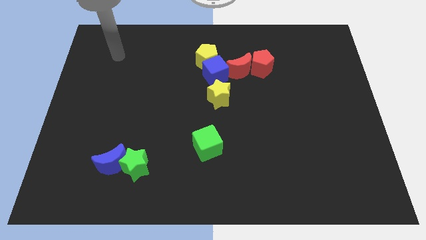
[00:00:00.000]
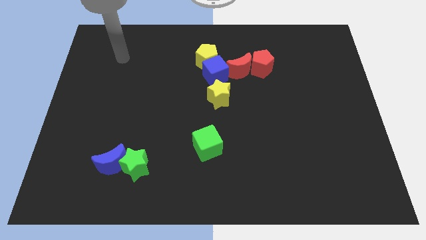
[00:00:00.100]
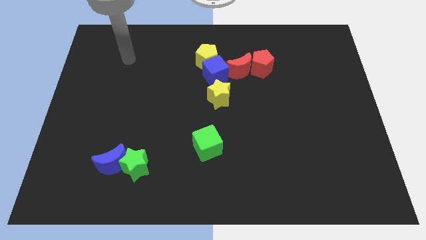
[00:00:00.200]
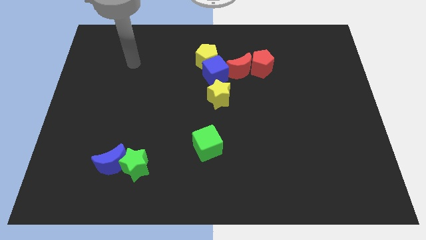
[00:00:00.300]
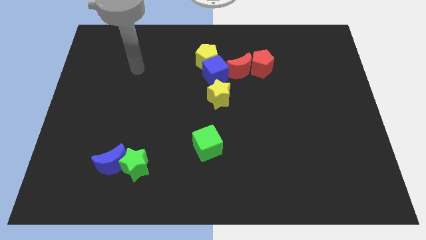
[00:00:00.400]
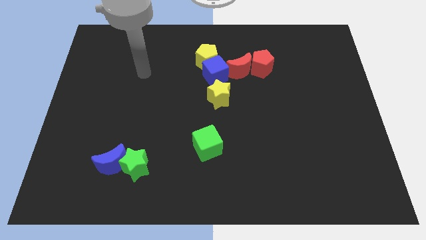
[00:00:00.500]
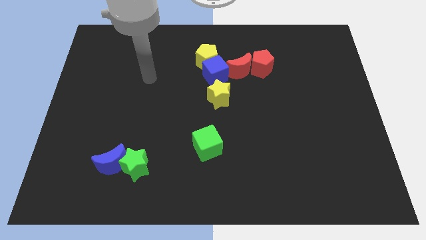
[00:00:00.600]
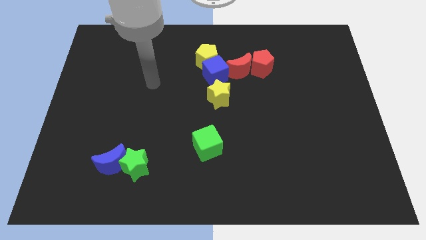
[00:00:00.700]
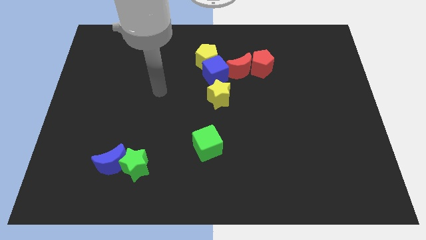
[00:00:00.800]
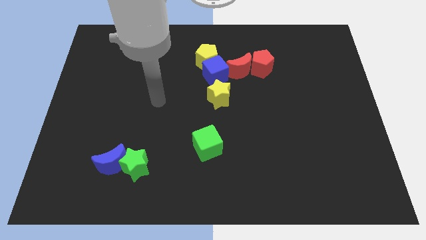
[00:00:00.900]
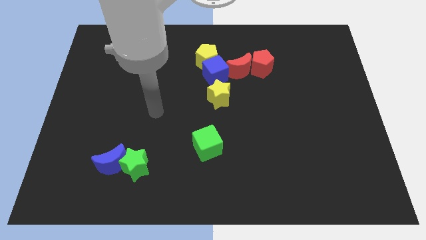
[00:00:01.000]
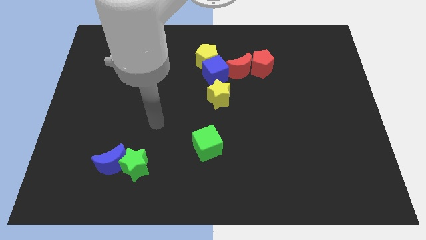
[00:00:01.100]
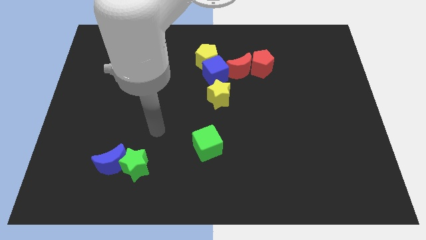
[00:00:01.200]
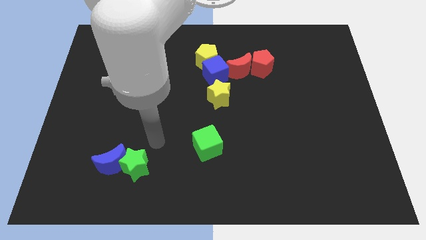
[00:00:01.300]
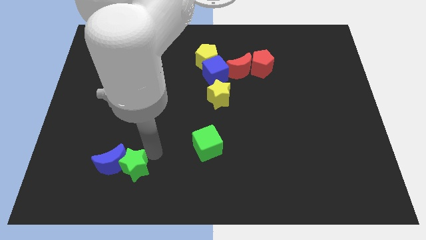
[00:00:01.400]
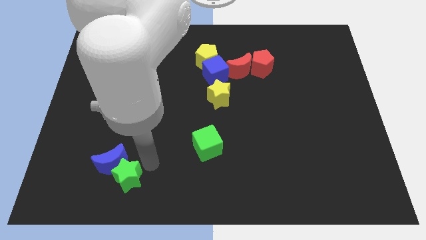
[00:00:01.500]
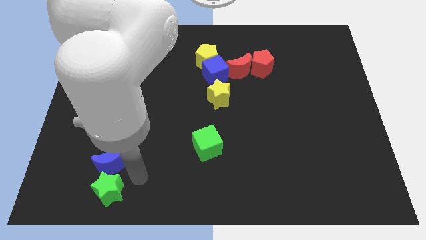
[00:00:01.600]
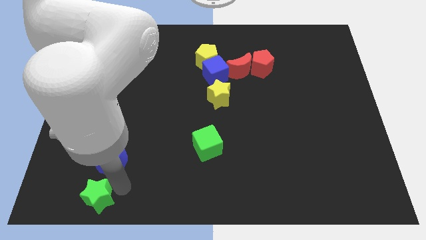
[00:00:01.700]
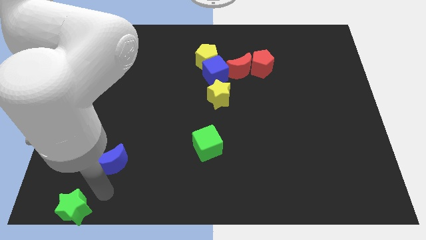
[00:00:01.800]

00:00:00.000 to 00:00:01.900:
separate the blue moon from the green star

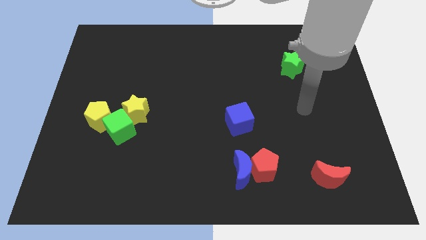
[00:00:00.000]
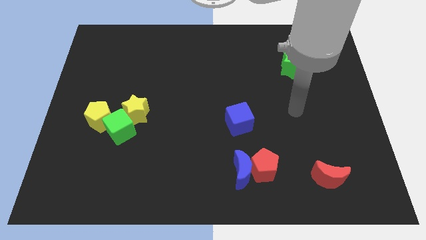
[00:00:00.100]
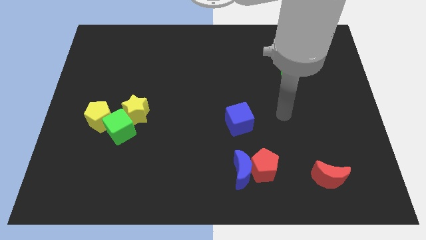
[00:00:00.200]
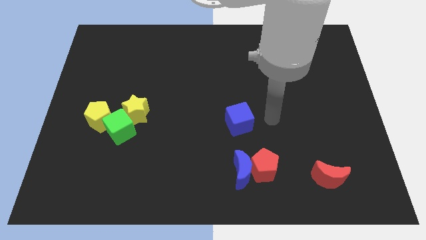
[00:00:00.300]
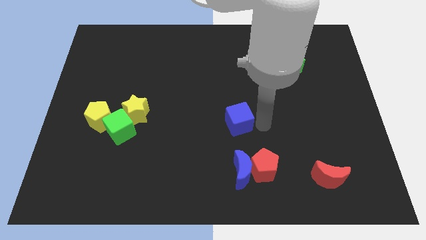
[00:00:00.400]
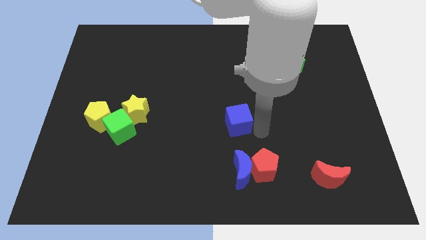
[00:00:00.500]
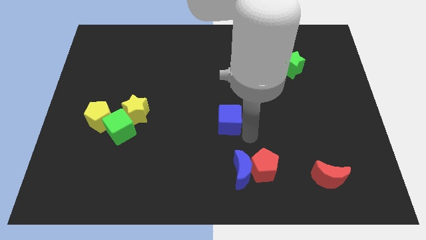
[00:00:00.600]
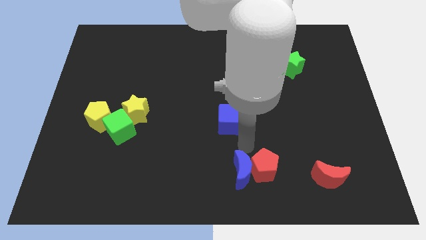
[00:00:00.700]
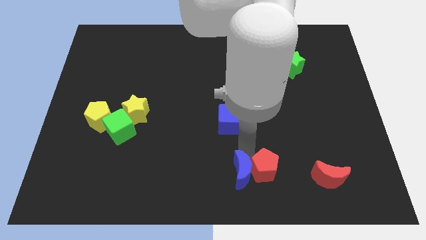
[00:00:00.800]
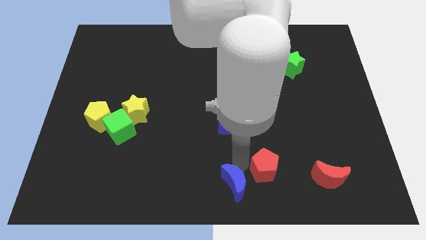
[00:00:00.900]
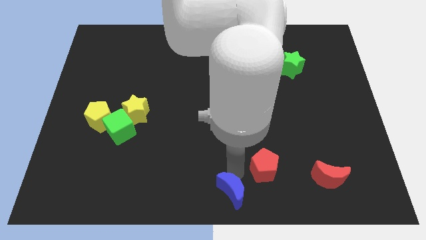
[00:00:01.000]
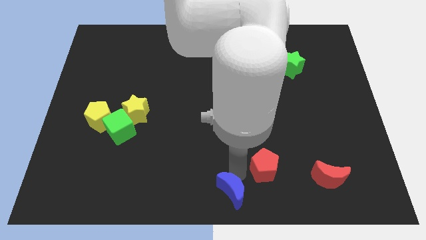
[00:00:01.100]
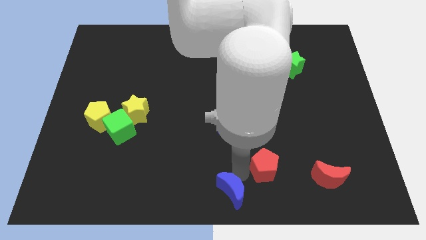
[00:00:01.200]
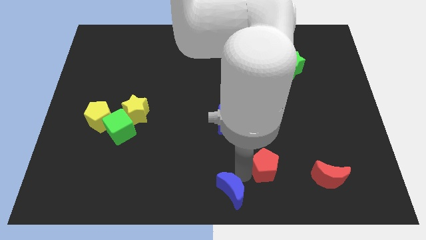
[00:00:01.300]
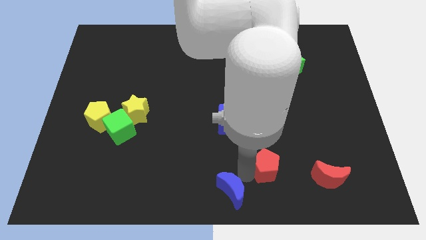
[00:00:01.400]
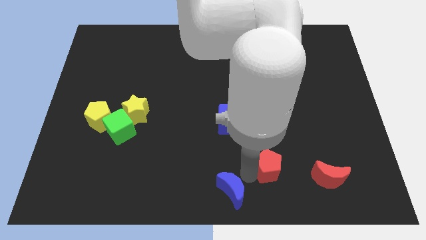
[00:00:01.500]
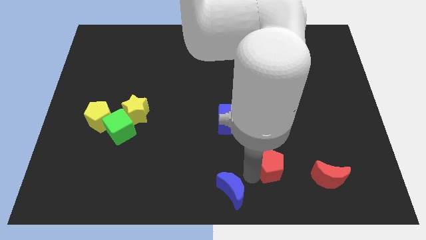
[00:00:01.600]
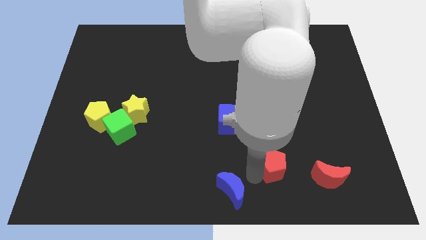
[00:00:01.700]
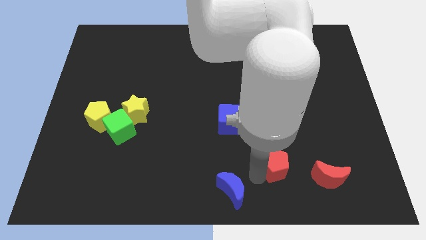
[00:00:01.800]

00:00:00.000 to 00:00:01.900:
move the red pentagon away from the blue moon

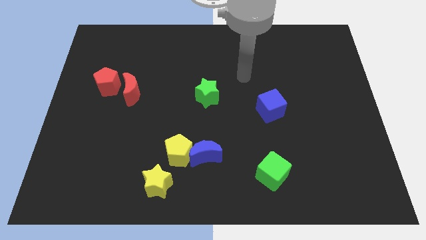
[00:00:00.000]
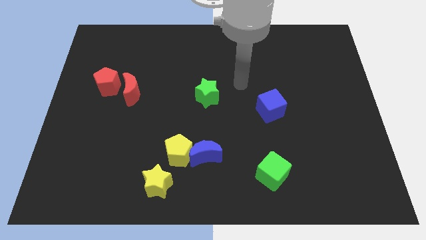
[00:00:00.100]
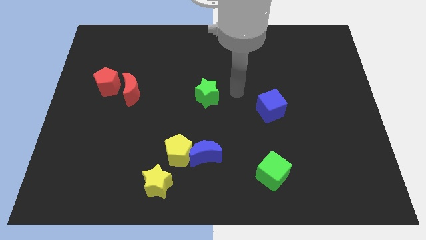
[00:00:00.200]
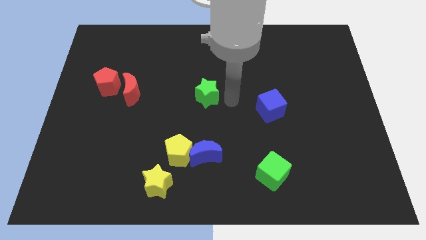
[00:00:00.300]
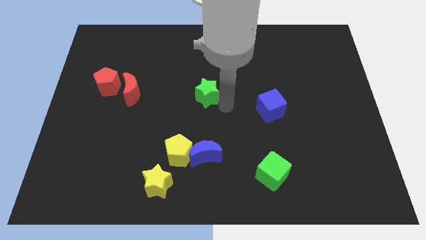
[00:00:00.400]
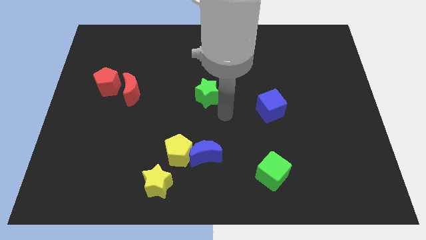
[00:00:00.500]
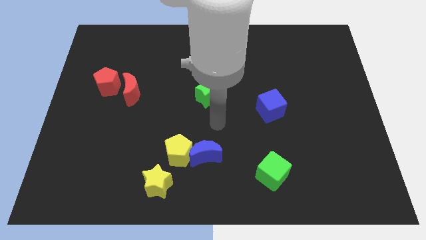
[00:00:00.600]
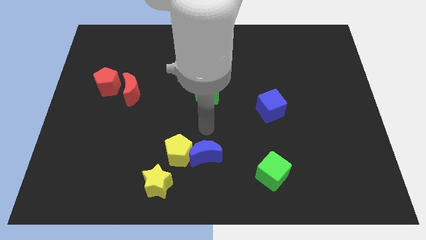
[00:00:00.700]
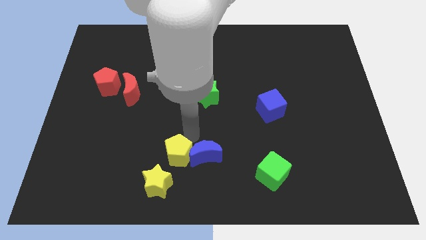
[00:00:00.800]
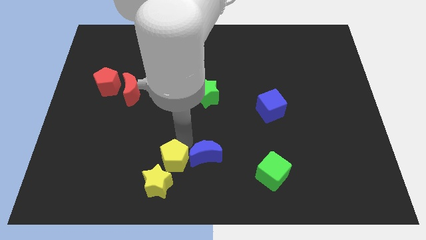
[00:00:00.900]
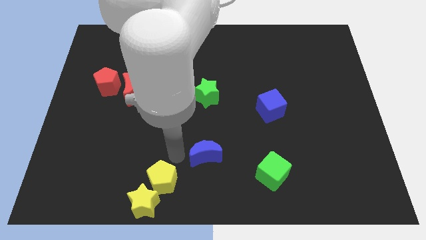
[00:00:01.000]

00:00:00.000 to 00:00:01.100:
pull the blue moon apart from the yellow pentagon

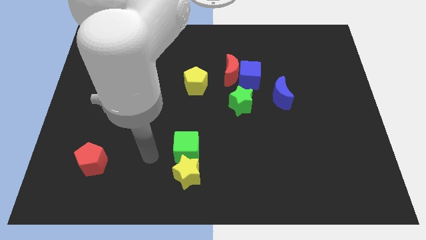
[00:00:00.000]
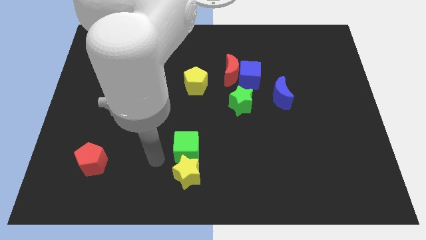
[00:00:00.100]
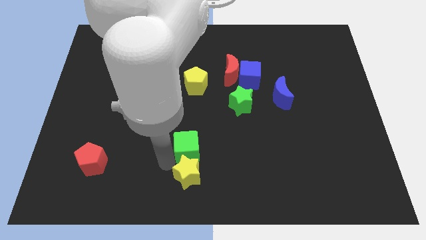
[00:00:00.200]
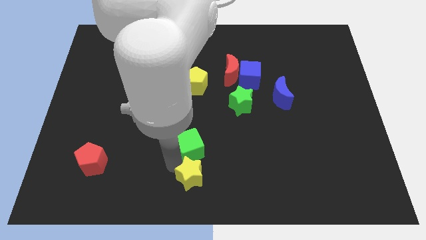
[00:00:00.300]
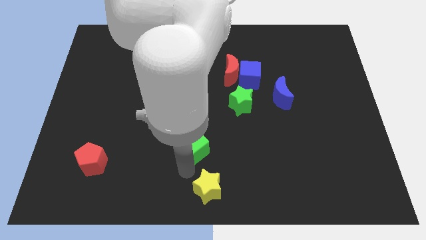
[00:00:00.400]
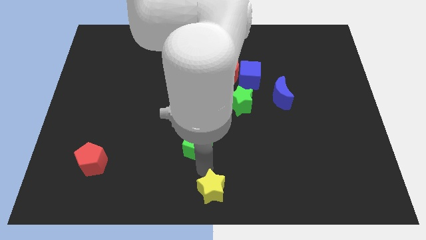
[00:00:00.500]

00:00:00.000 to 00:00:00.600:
pull the green cube apart from the yellow star

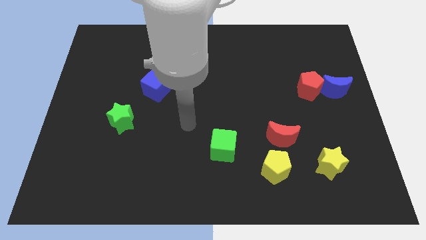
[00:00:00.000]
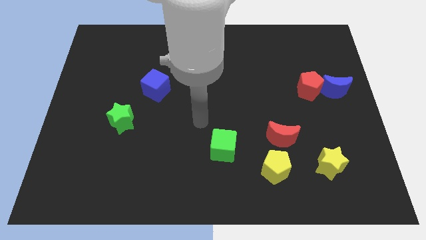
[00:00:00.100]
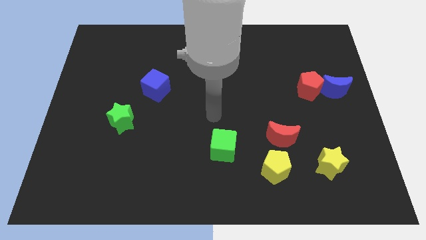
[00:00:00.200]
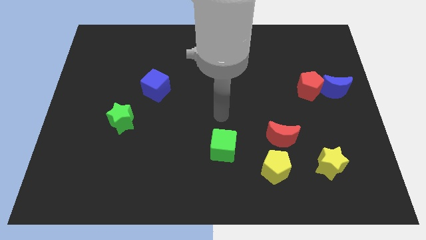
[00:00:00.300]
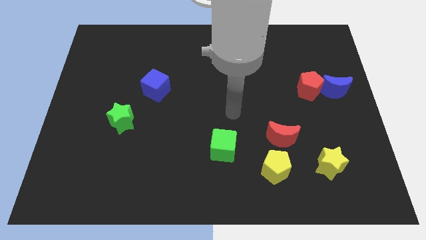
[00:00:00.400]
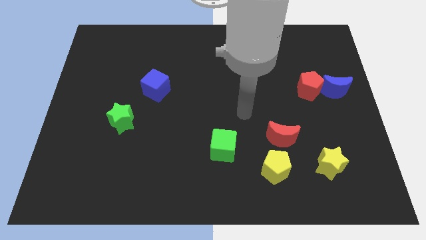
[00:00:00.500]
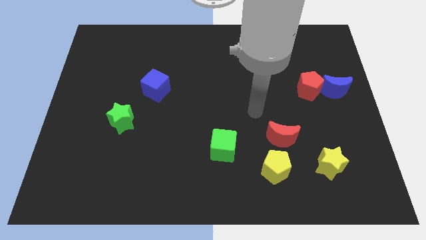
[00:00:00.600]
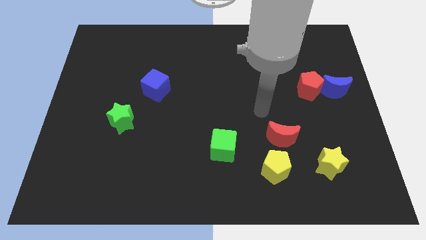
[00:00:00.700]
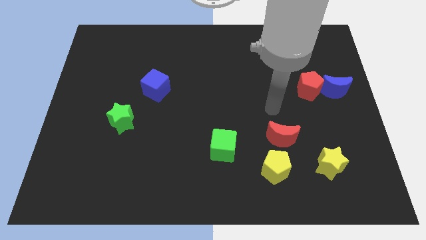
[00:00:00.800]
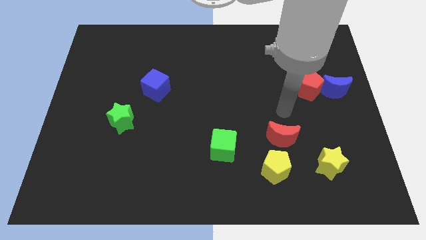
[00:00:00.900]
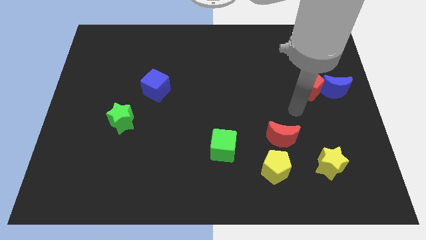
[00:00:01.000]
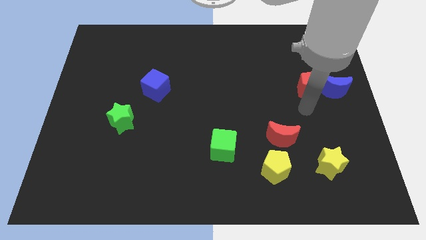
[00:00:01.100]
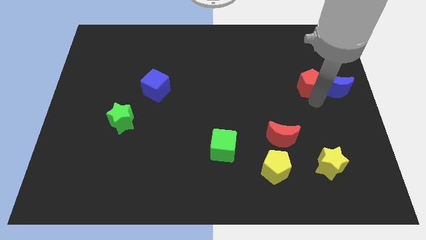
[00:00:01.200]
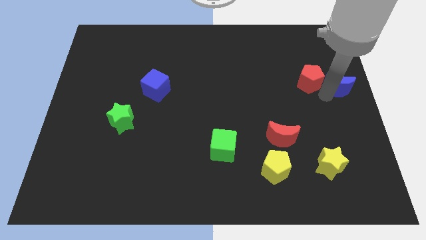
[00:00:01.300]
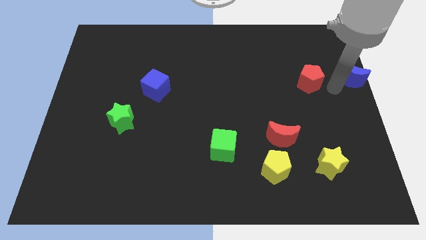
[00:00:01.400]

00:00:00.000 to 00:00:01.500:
pull the red pentagon apart from the blue moon

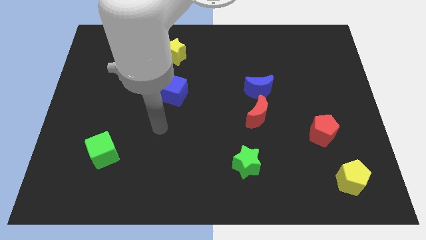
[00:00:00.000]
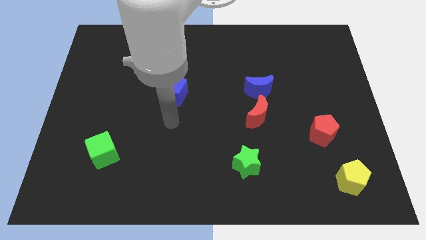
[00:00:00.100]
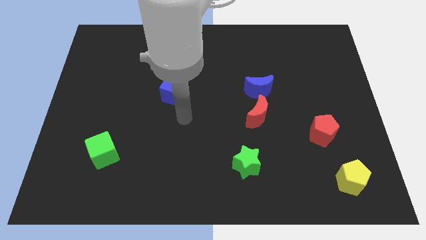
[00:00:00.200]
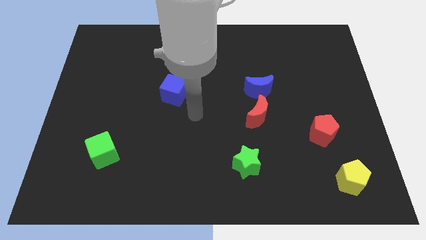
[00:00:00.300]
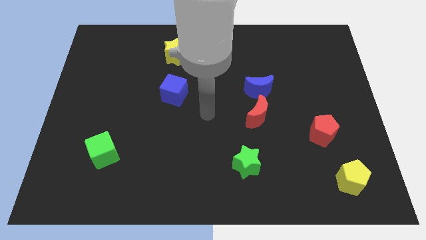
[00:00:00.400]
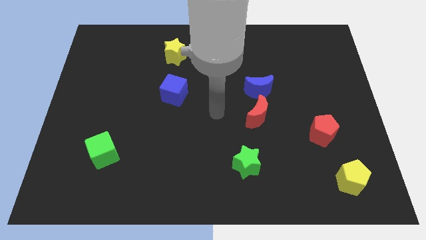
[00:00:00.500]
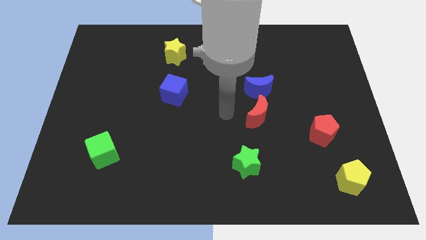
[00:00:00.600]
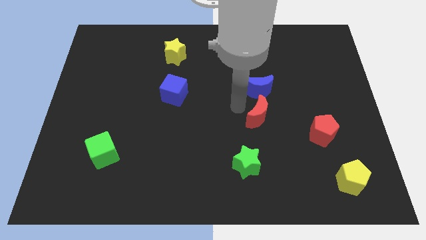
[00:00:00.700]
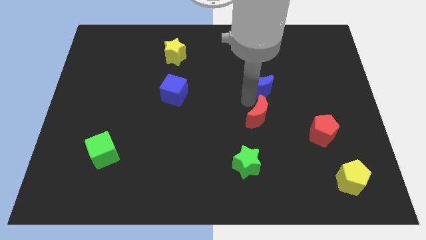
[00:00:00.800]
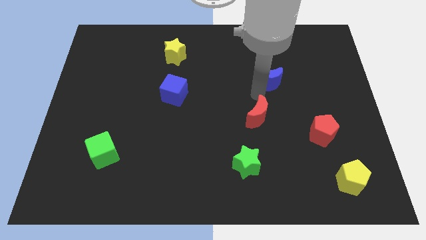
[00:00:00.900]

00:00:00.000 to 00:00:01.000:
pull the red moon apart from the blue moon

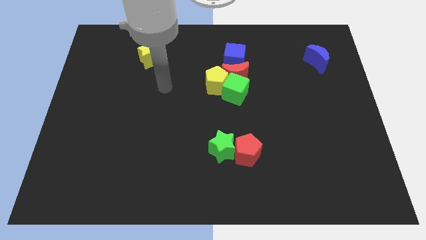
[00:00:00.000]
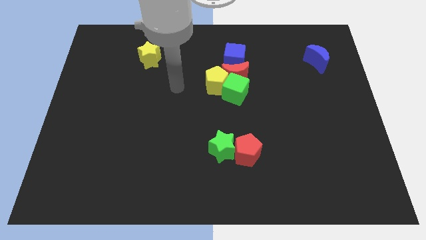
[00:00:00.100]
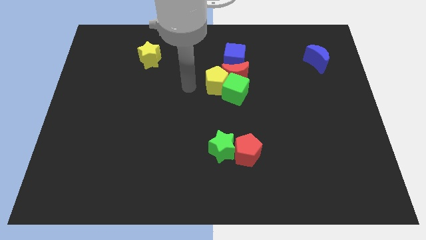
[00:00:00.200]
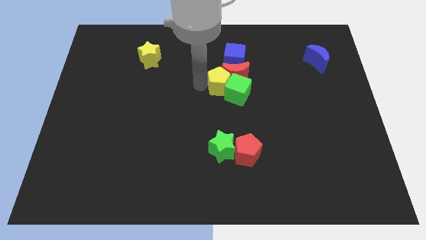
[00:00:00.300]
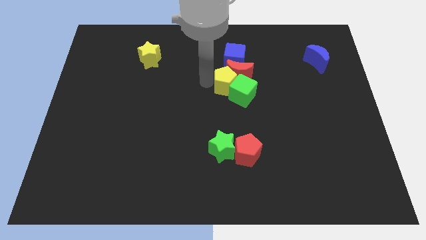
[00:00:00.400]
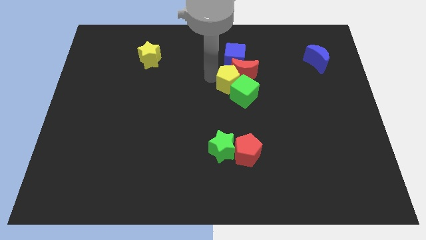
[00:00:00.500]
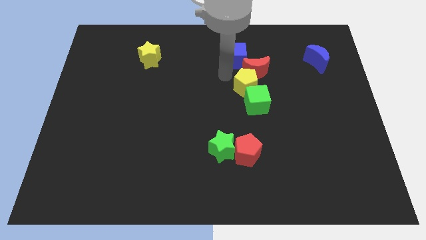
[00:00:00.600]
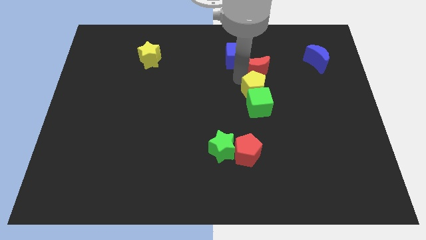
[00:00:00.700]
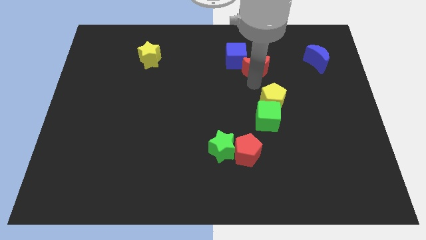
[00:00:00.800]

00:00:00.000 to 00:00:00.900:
separate the green cube from the red moon and yellow pentagon

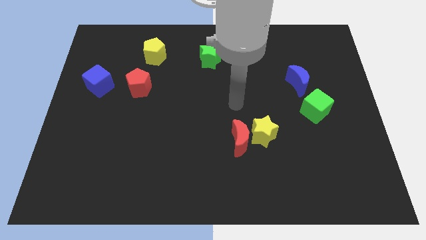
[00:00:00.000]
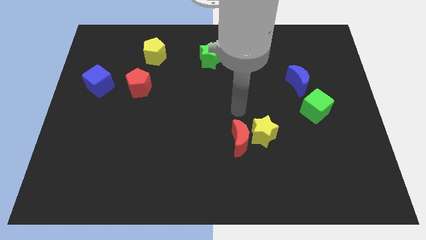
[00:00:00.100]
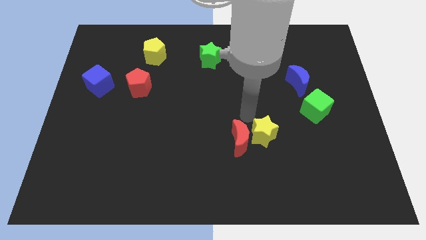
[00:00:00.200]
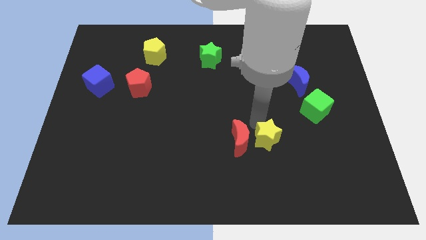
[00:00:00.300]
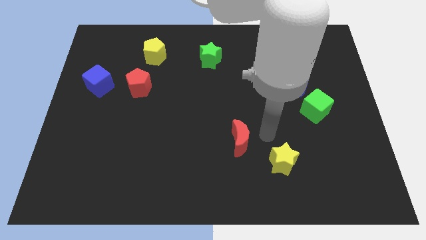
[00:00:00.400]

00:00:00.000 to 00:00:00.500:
pull the red moon apart from the yellow star
